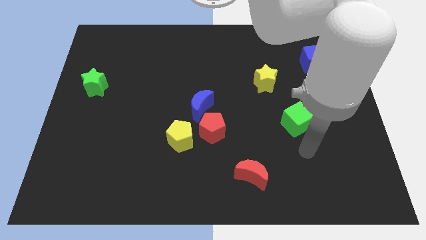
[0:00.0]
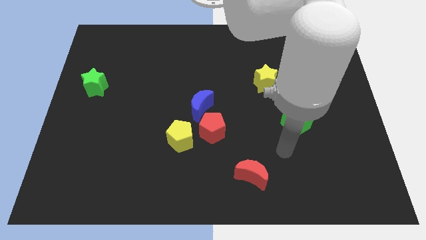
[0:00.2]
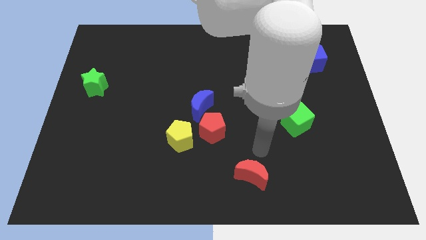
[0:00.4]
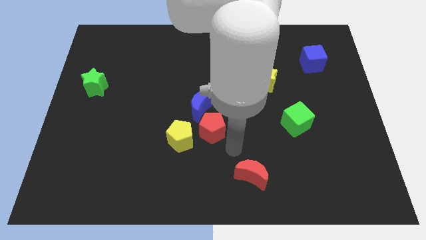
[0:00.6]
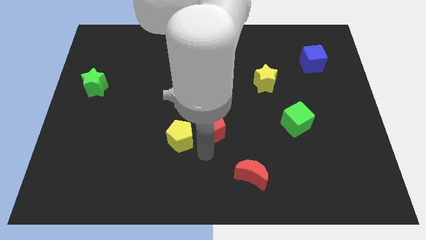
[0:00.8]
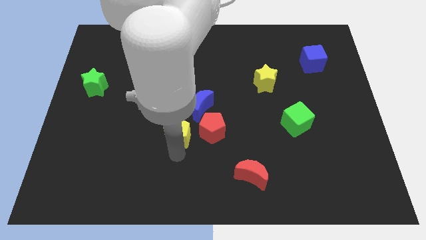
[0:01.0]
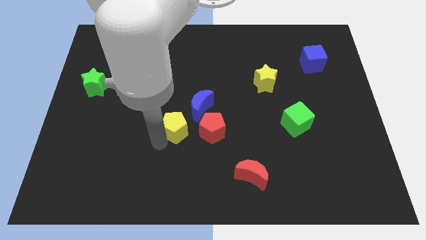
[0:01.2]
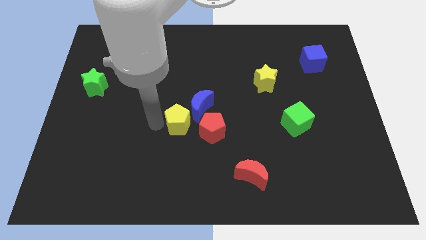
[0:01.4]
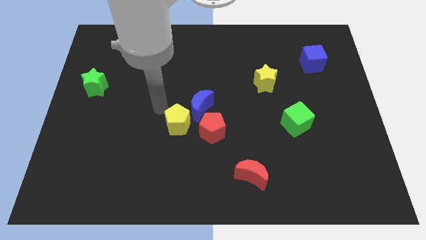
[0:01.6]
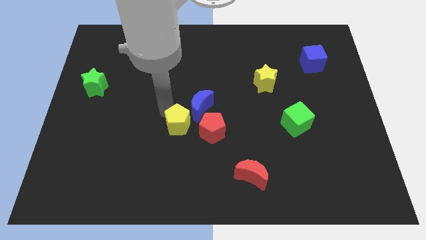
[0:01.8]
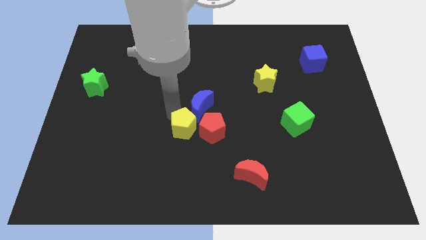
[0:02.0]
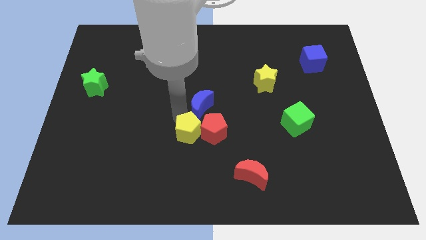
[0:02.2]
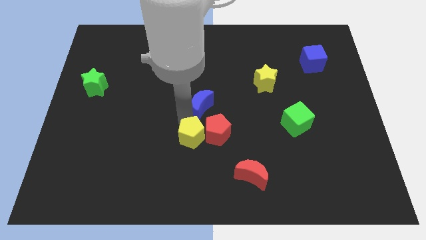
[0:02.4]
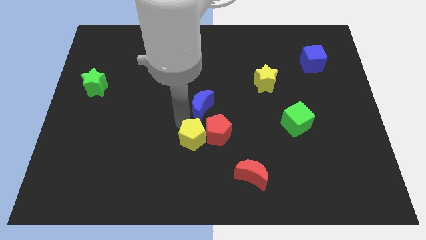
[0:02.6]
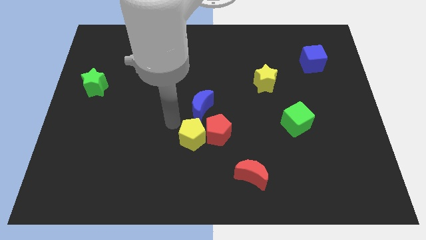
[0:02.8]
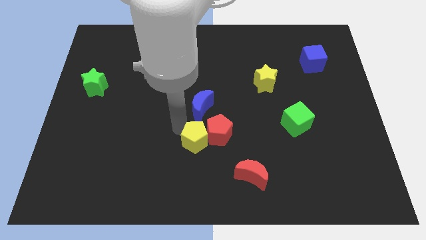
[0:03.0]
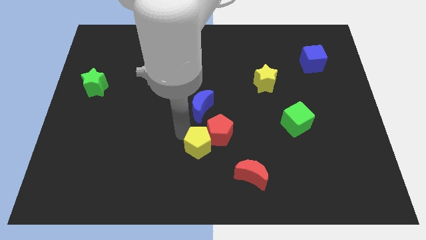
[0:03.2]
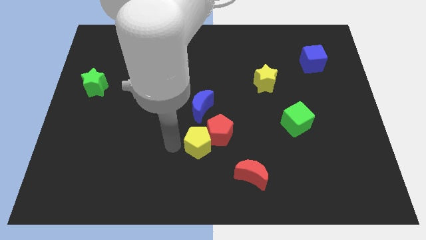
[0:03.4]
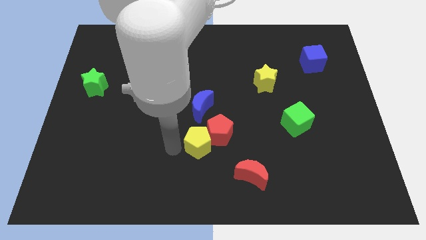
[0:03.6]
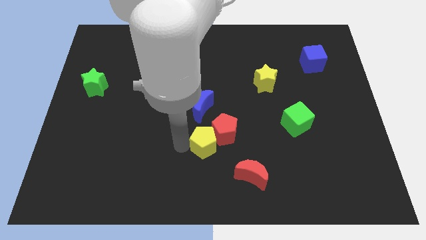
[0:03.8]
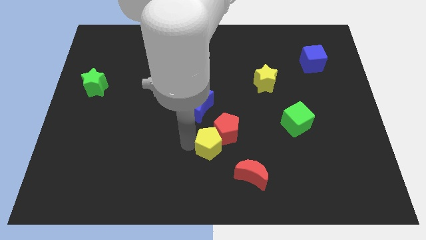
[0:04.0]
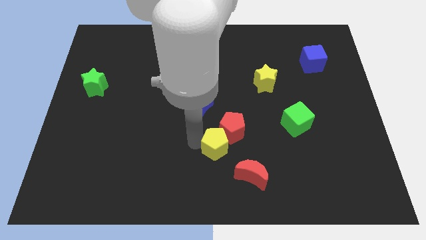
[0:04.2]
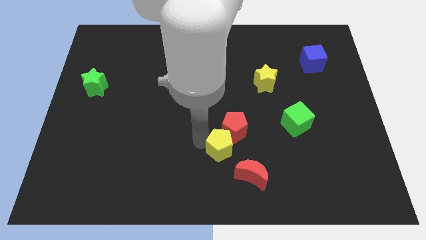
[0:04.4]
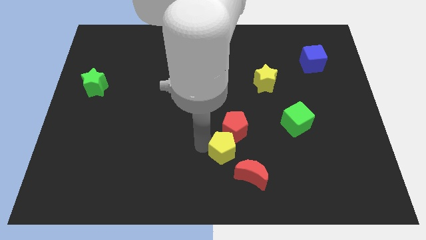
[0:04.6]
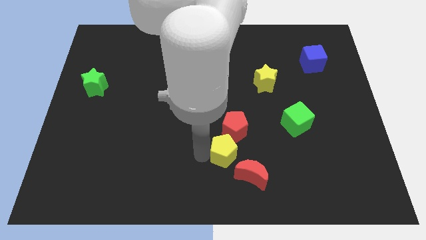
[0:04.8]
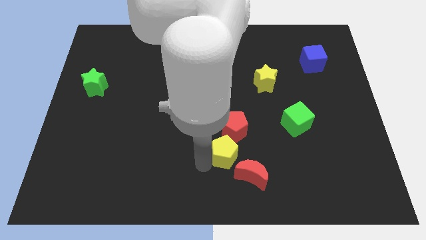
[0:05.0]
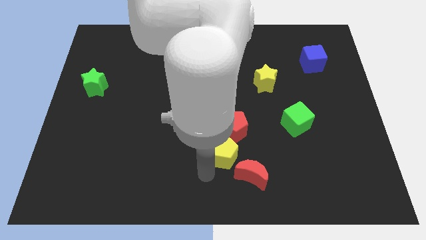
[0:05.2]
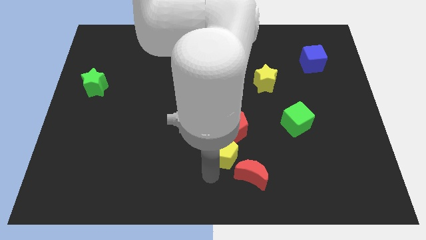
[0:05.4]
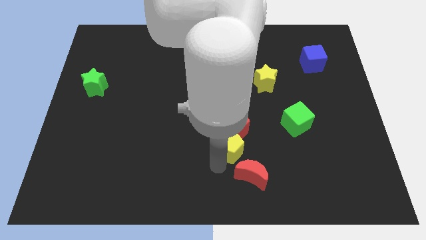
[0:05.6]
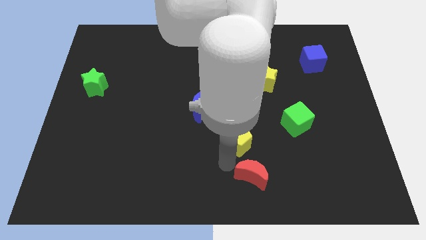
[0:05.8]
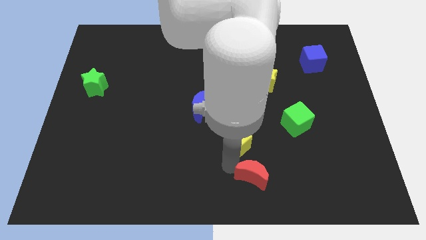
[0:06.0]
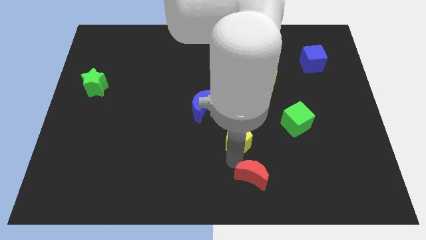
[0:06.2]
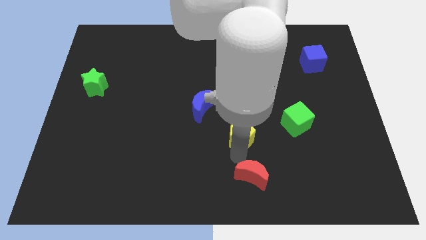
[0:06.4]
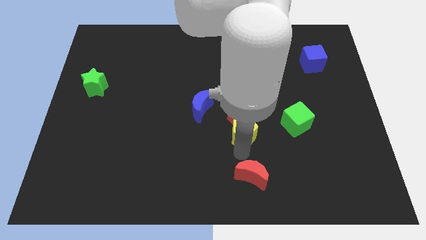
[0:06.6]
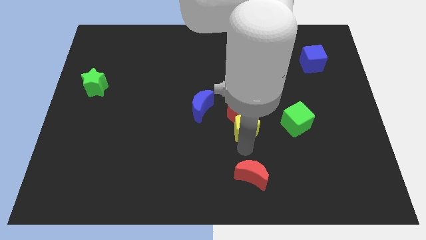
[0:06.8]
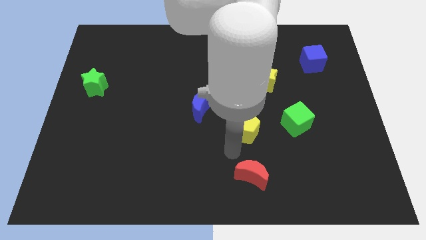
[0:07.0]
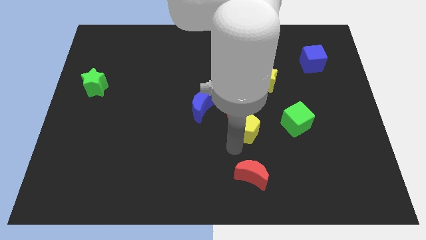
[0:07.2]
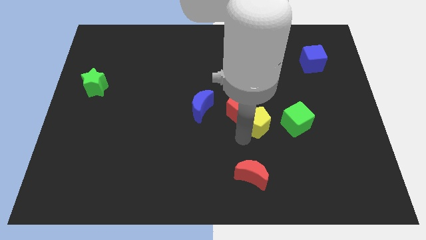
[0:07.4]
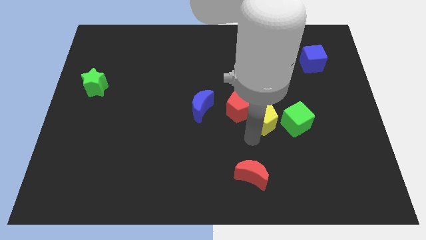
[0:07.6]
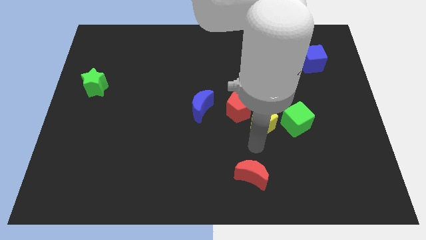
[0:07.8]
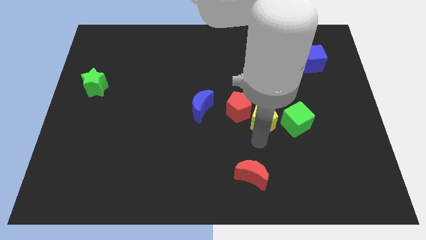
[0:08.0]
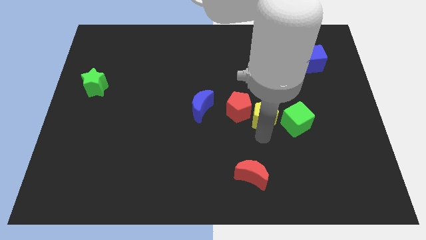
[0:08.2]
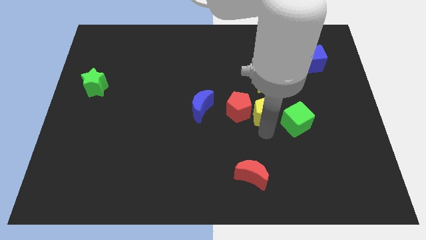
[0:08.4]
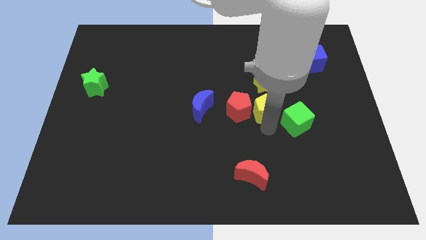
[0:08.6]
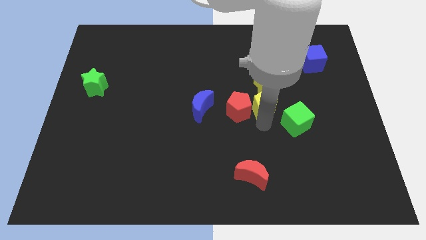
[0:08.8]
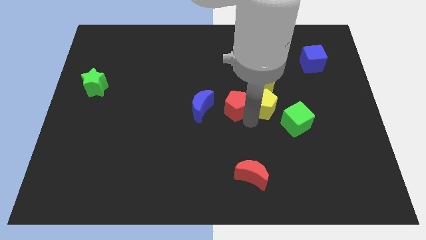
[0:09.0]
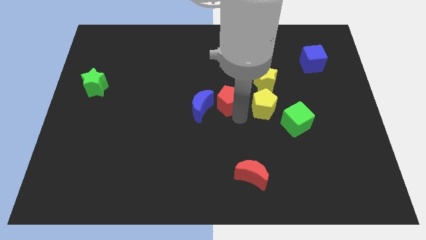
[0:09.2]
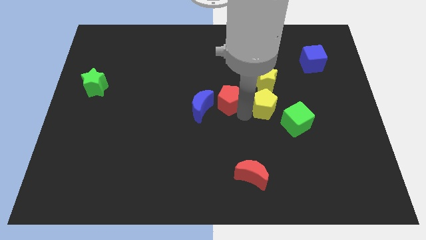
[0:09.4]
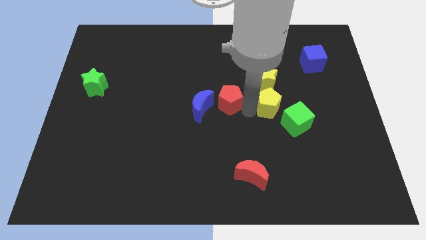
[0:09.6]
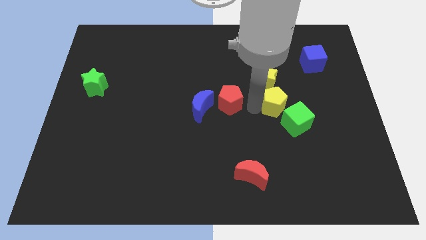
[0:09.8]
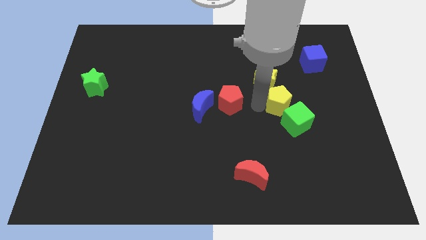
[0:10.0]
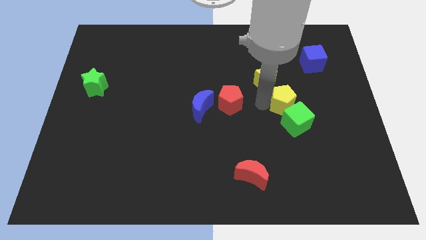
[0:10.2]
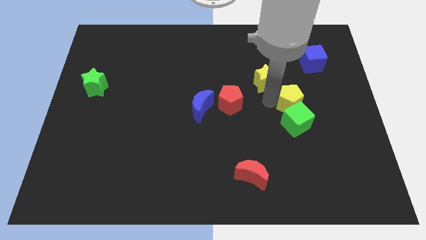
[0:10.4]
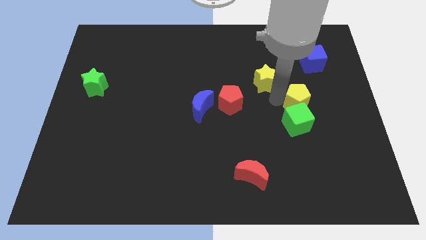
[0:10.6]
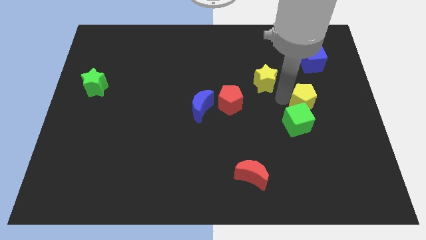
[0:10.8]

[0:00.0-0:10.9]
push the yellow pentagon to the bottom side of the blue cube

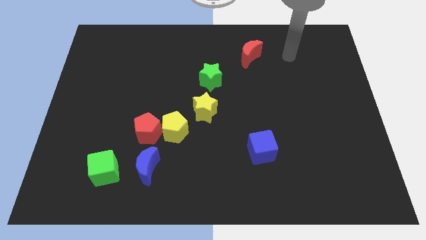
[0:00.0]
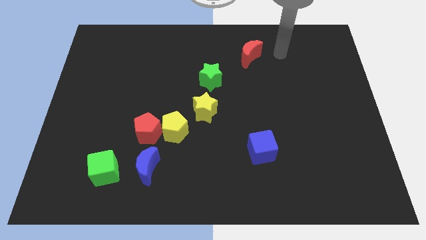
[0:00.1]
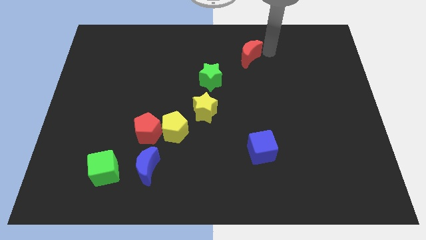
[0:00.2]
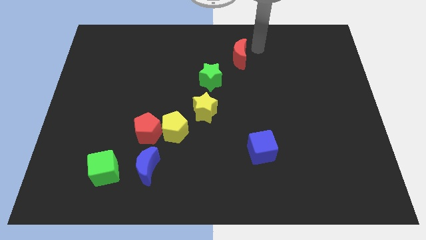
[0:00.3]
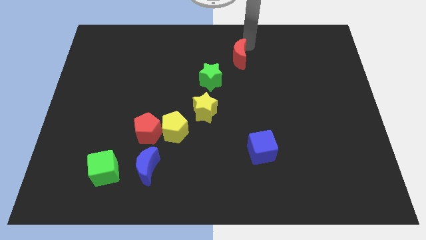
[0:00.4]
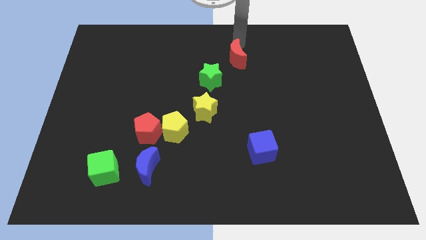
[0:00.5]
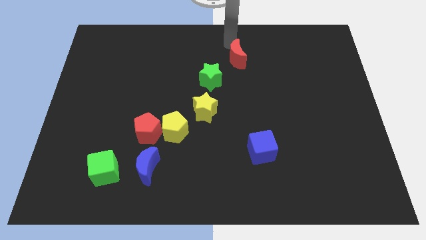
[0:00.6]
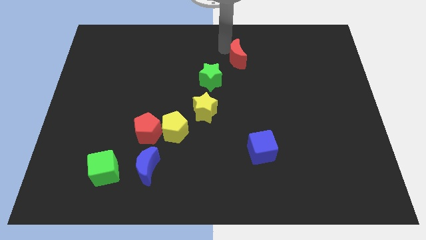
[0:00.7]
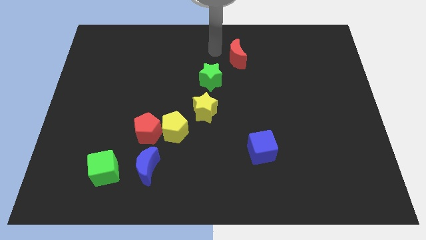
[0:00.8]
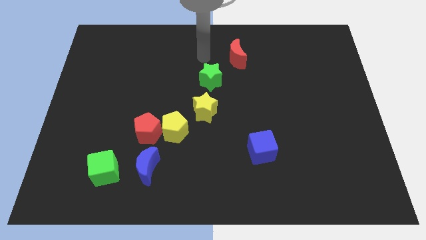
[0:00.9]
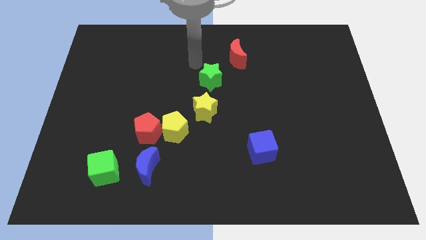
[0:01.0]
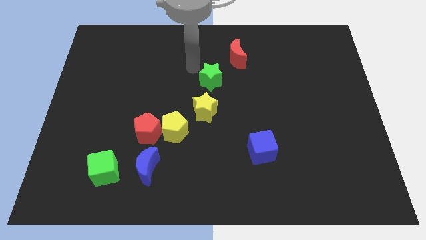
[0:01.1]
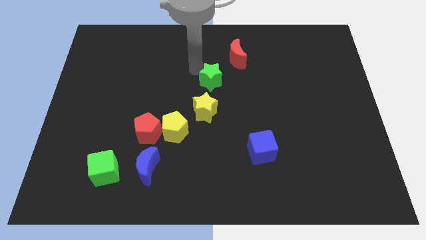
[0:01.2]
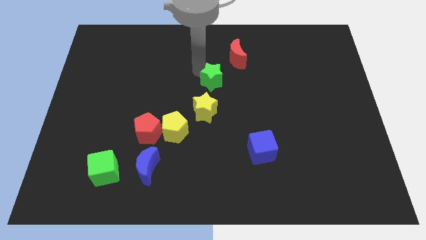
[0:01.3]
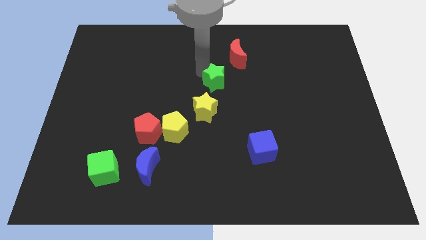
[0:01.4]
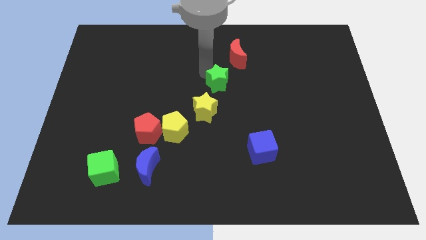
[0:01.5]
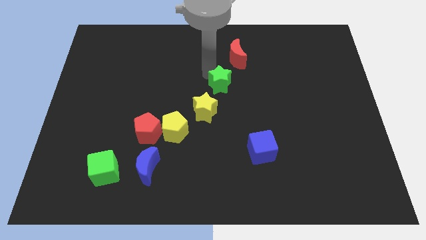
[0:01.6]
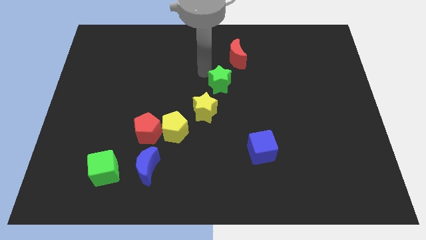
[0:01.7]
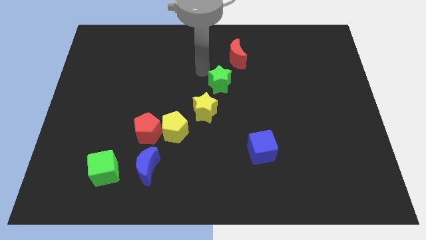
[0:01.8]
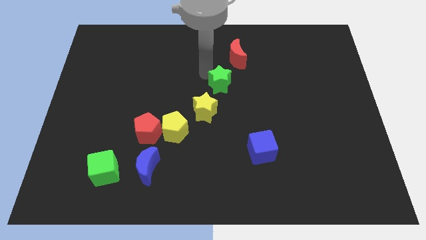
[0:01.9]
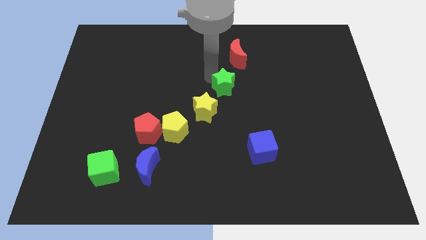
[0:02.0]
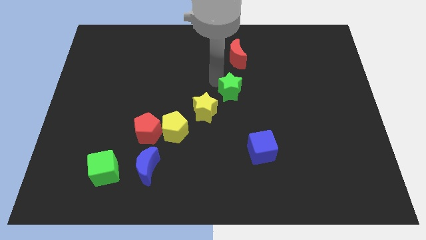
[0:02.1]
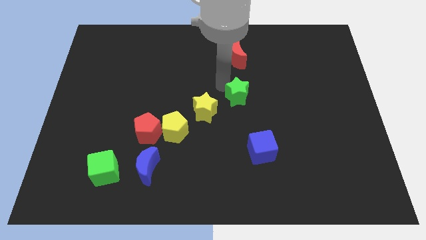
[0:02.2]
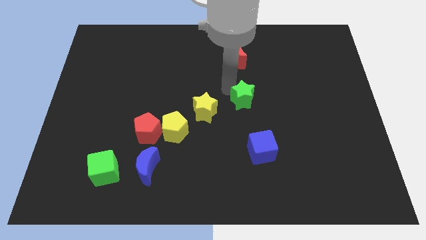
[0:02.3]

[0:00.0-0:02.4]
slide the green star to the top side of the blue cube
